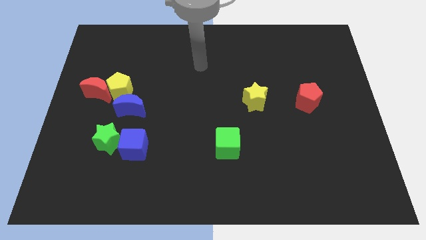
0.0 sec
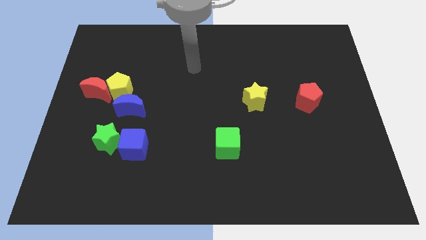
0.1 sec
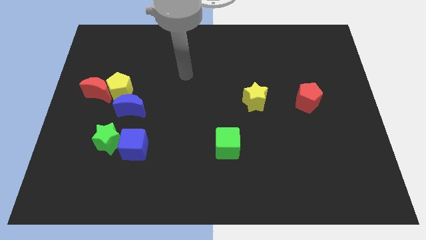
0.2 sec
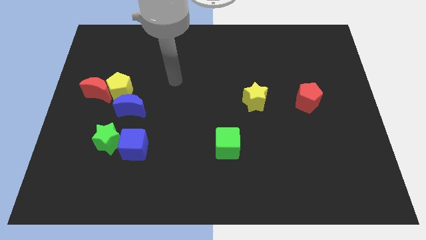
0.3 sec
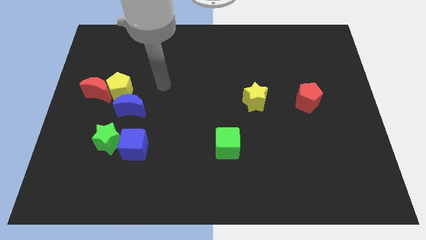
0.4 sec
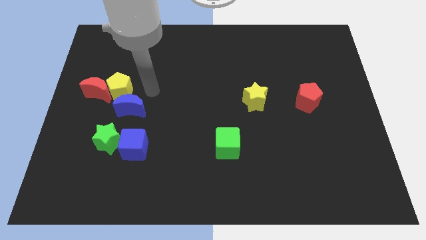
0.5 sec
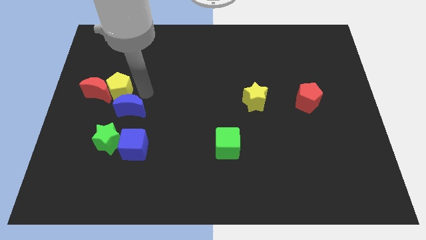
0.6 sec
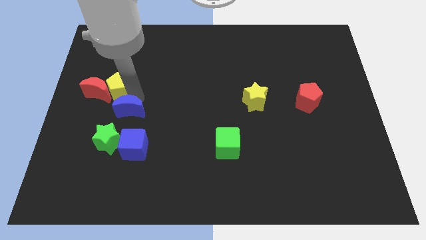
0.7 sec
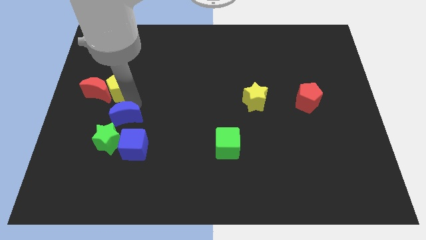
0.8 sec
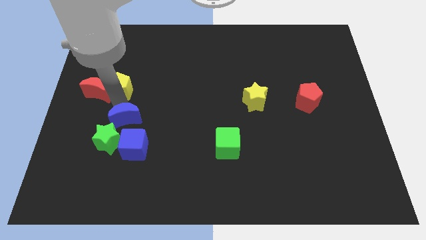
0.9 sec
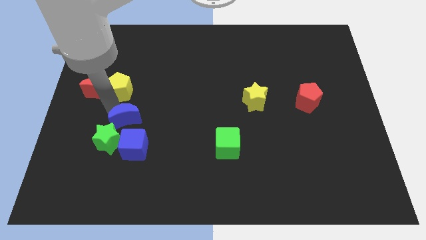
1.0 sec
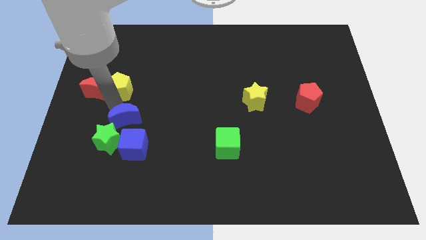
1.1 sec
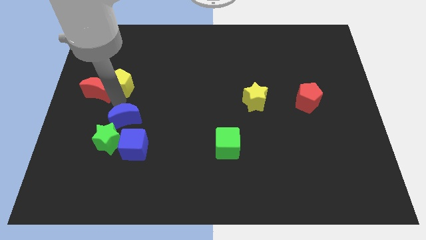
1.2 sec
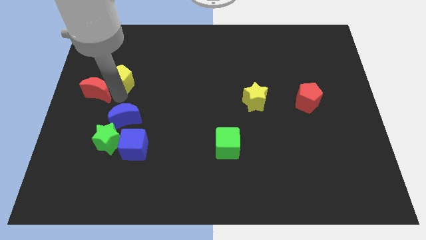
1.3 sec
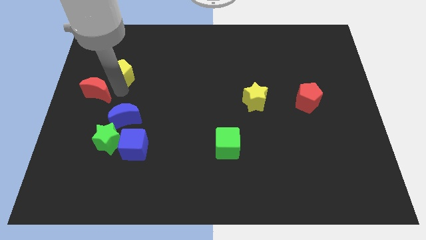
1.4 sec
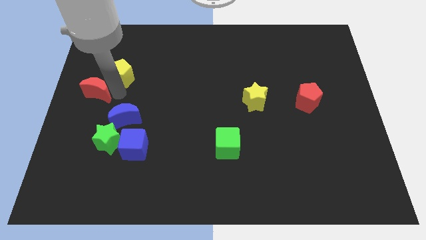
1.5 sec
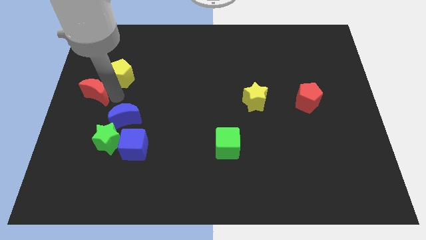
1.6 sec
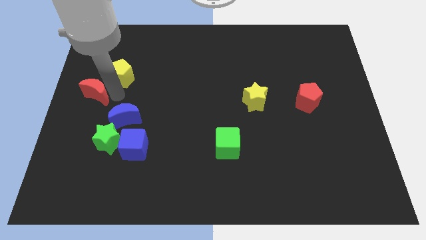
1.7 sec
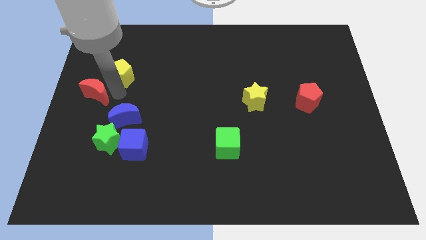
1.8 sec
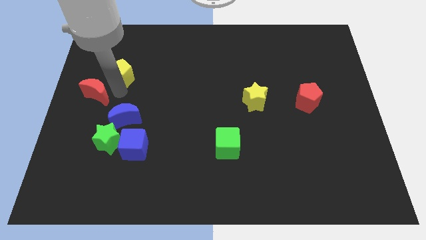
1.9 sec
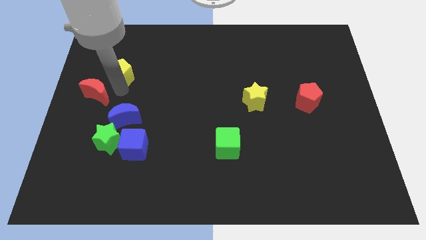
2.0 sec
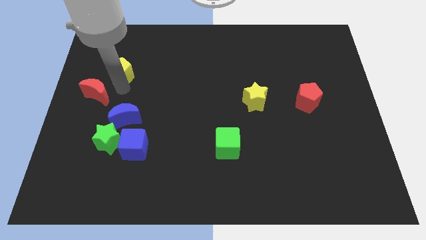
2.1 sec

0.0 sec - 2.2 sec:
pull the yellow pentagon apart from the red moon and blue moon

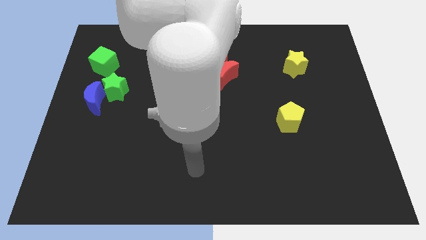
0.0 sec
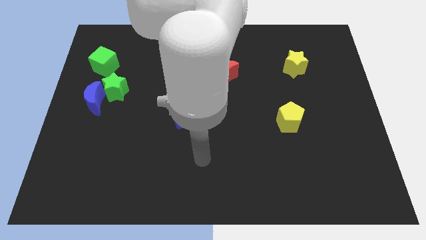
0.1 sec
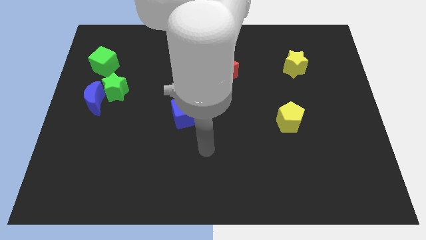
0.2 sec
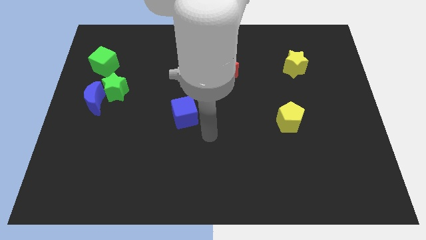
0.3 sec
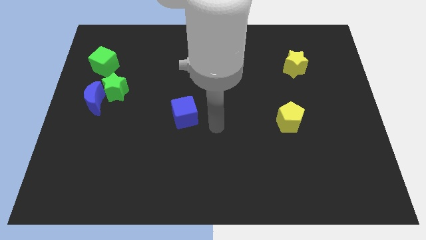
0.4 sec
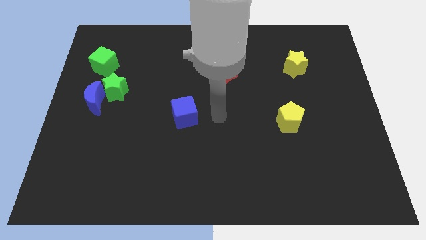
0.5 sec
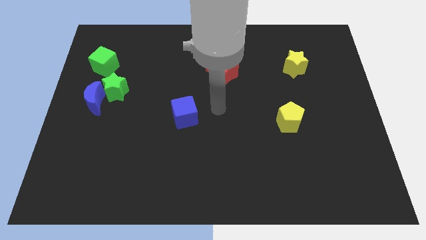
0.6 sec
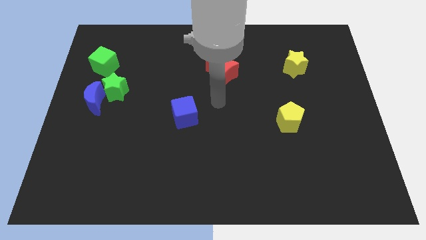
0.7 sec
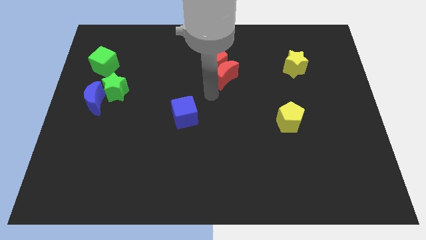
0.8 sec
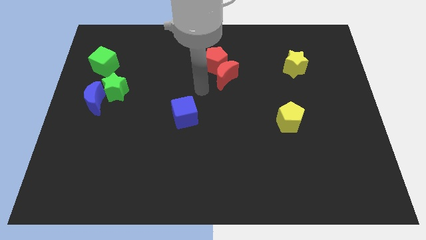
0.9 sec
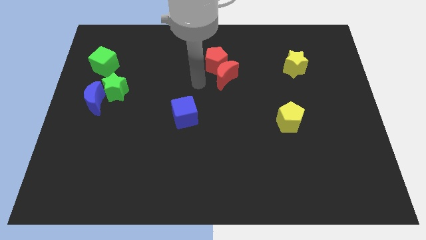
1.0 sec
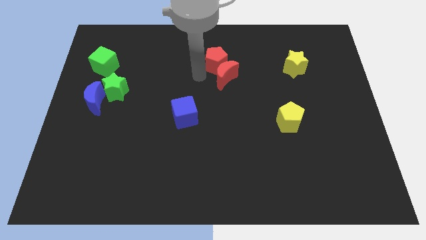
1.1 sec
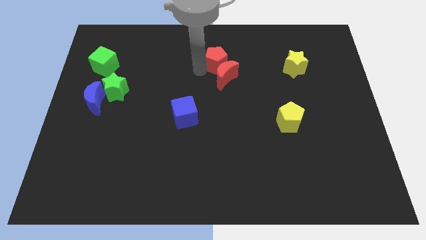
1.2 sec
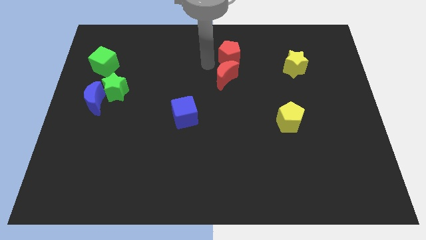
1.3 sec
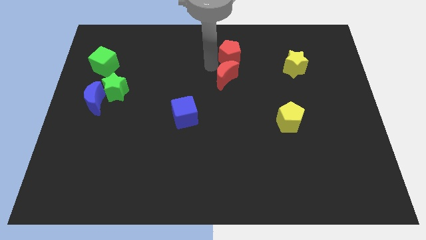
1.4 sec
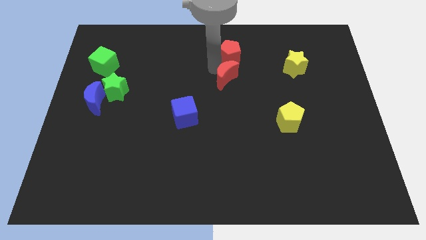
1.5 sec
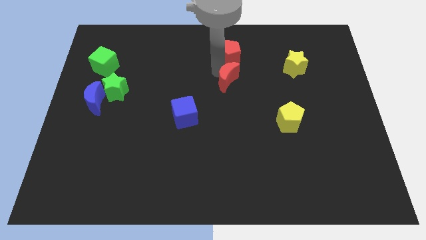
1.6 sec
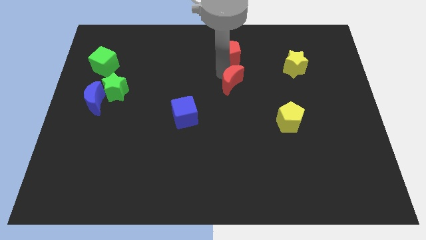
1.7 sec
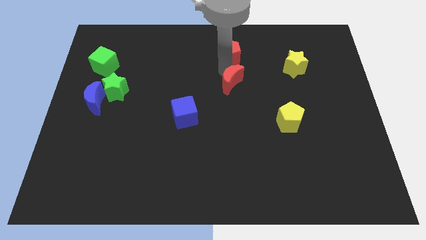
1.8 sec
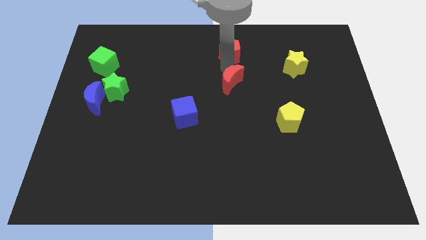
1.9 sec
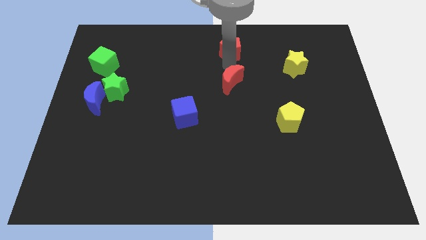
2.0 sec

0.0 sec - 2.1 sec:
pull the red moon apart from the red pentagon

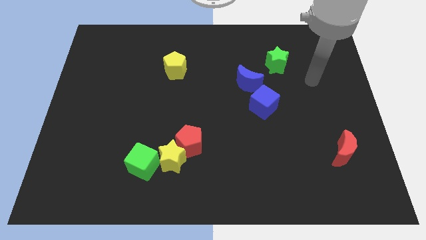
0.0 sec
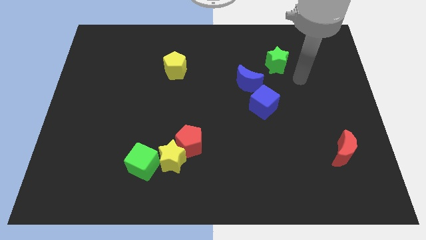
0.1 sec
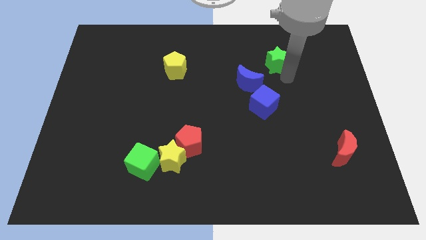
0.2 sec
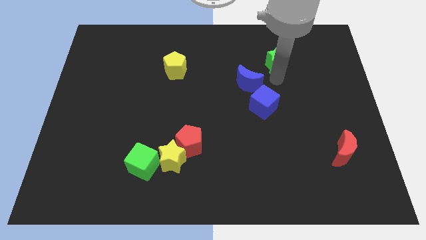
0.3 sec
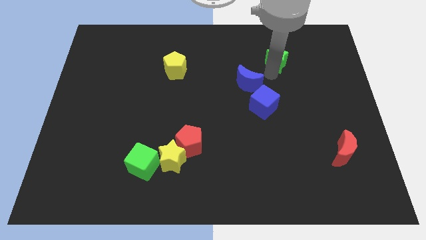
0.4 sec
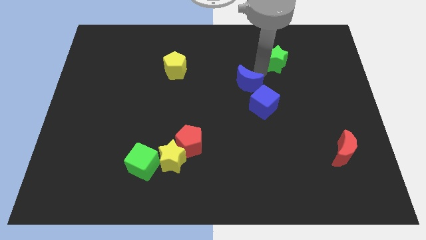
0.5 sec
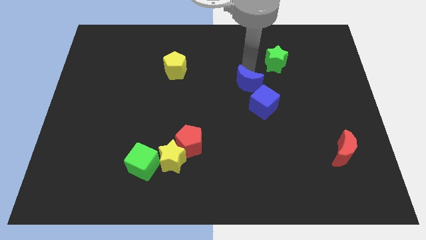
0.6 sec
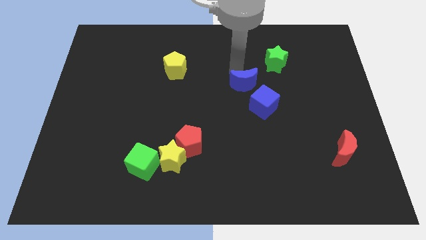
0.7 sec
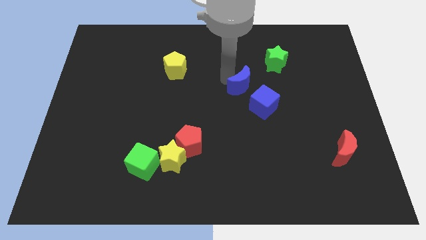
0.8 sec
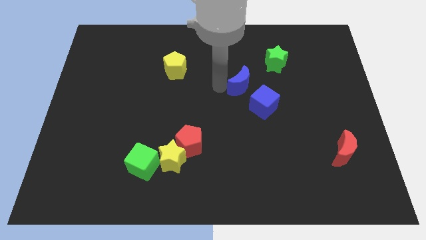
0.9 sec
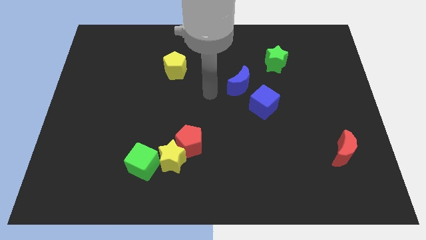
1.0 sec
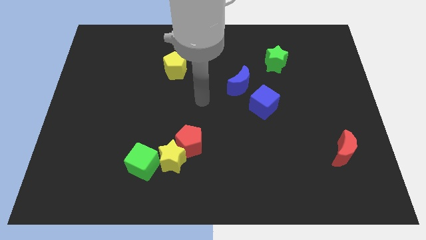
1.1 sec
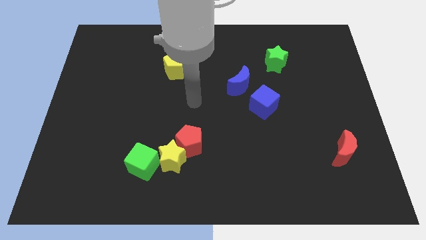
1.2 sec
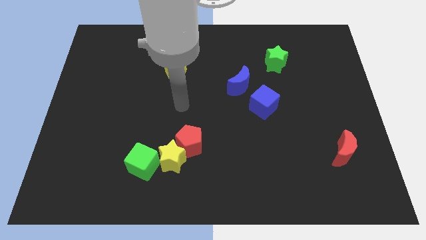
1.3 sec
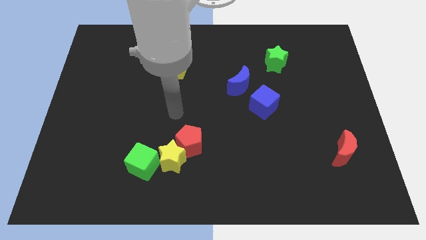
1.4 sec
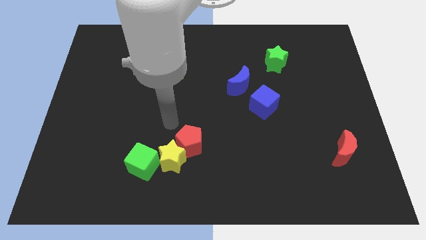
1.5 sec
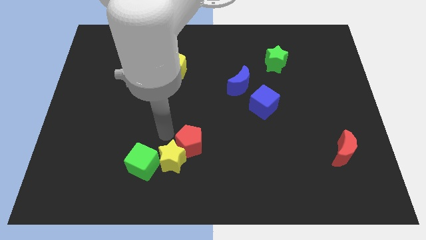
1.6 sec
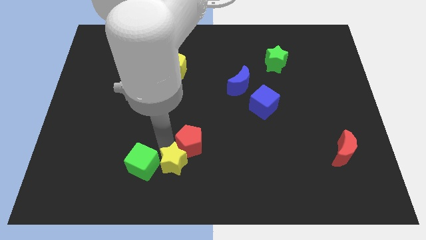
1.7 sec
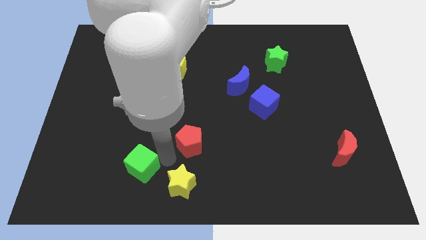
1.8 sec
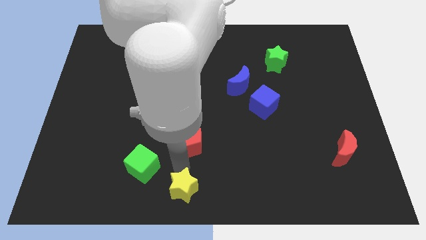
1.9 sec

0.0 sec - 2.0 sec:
pull the red pentagon apart from the yellow star

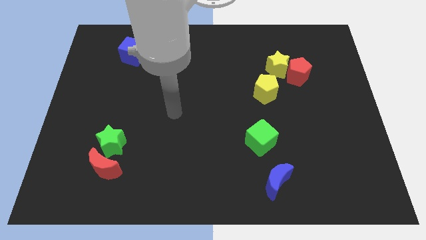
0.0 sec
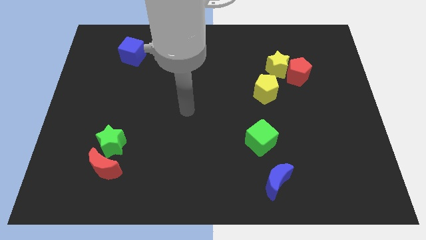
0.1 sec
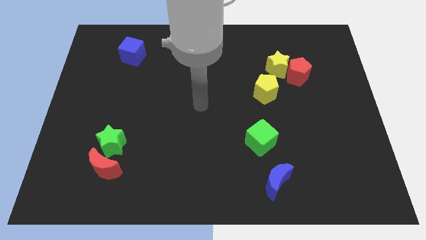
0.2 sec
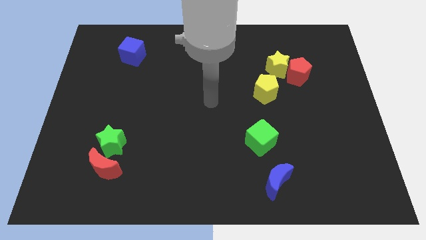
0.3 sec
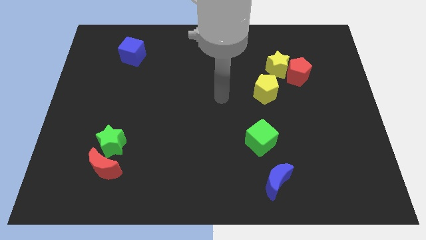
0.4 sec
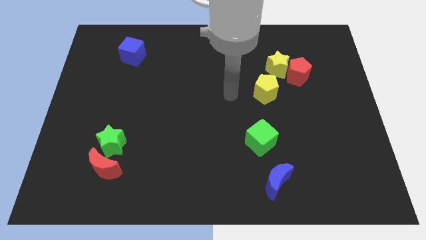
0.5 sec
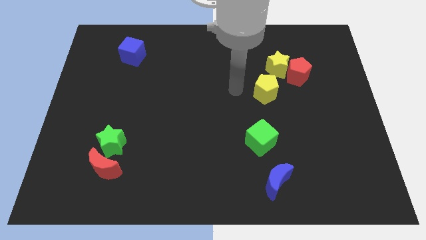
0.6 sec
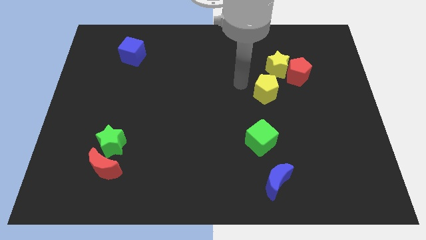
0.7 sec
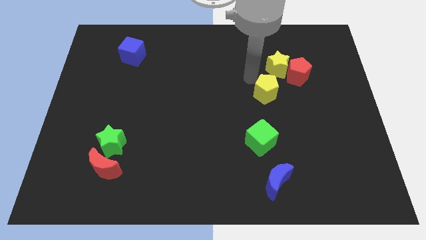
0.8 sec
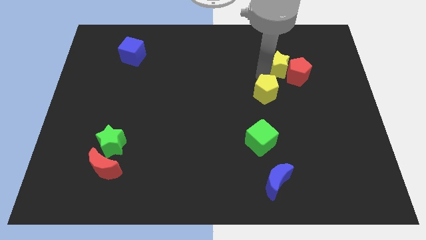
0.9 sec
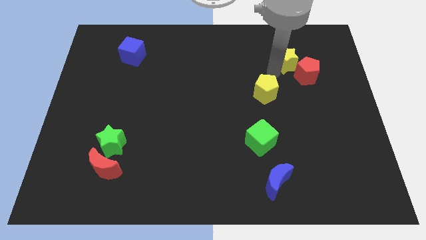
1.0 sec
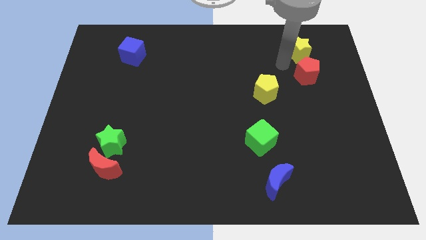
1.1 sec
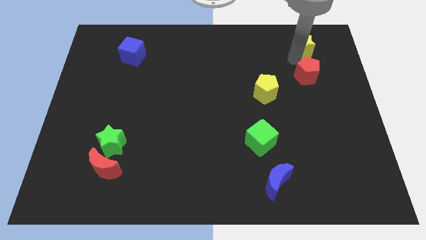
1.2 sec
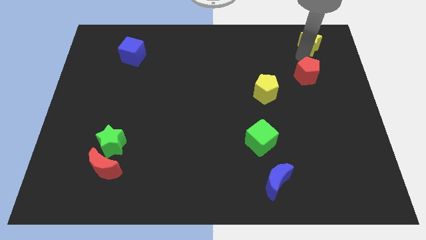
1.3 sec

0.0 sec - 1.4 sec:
separate the red pentagon from the yellow star

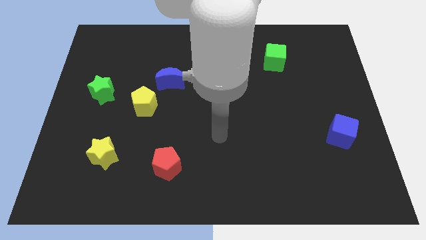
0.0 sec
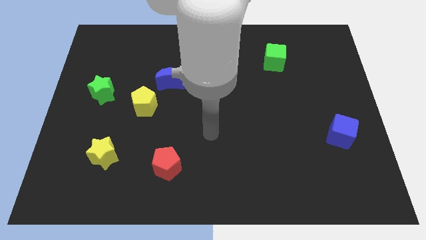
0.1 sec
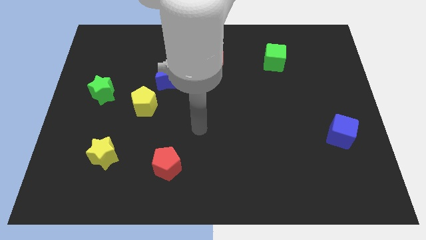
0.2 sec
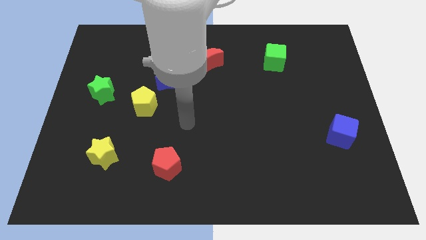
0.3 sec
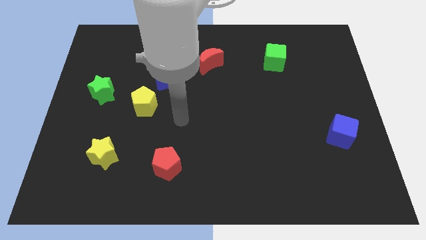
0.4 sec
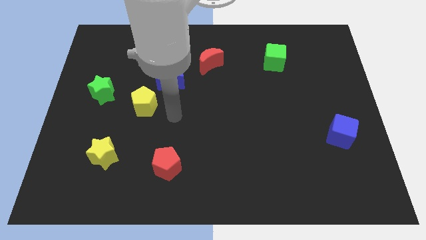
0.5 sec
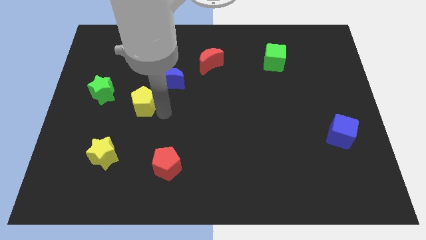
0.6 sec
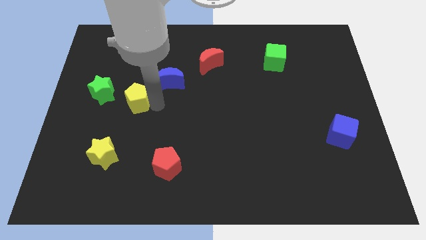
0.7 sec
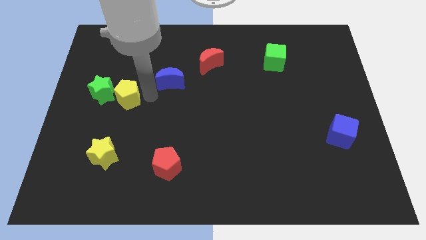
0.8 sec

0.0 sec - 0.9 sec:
move the blue moon away from the yellow pentagon

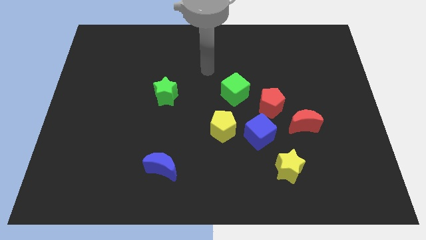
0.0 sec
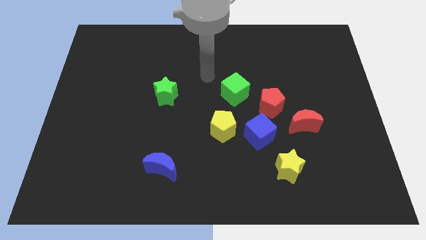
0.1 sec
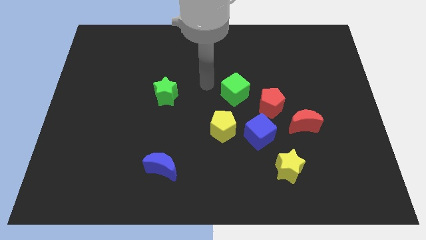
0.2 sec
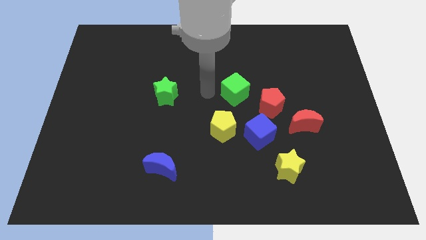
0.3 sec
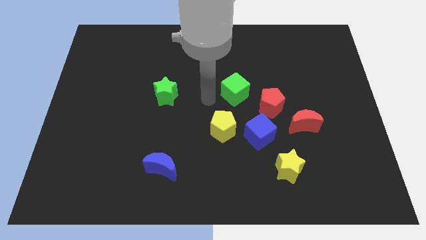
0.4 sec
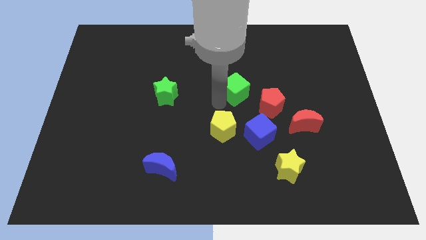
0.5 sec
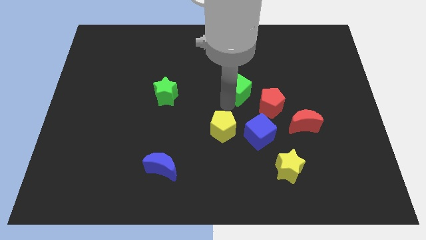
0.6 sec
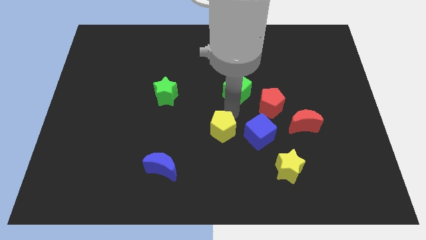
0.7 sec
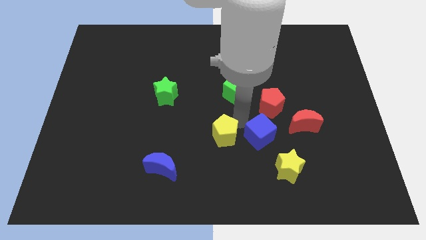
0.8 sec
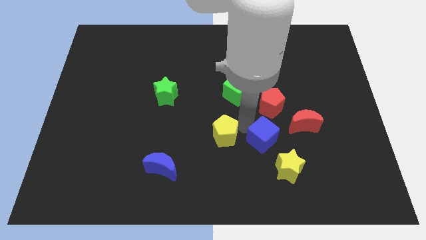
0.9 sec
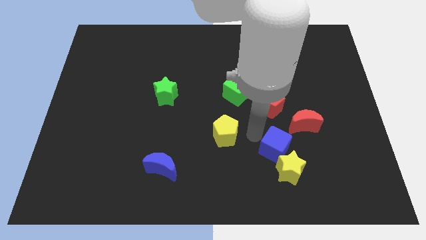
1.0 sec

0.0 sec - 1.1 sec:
separate the yellow pentagon from the blue cube
